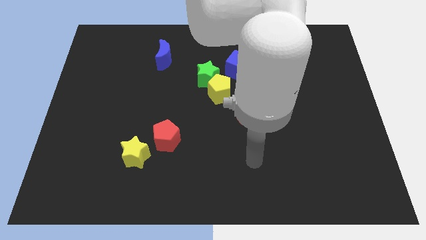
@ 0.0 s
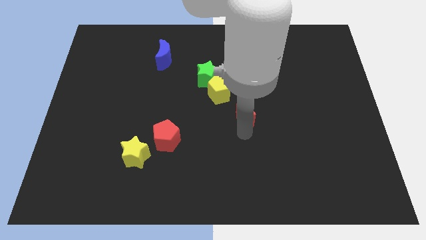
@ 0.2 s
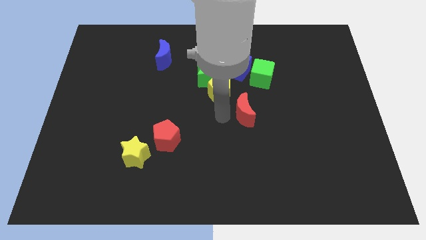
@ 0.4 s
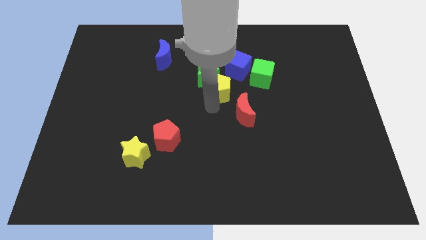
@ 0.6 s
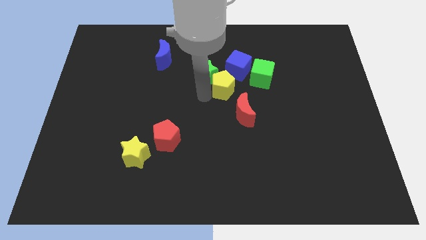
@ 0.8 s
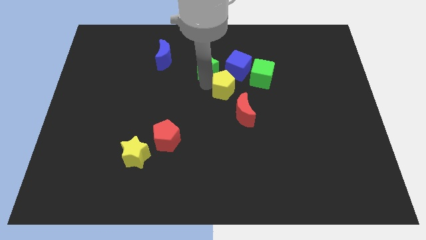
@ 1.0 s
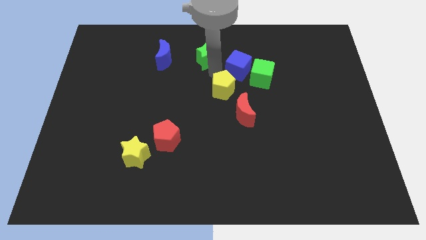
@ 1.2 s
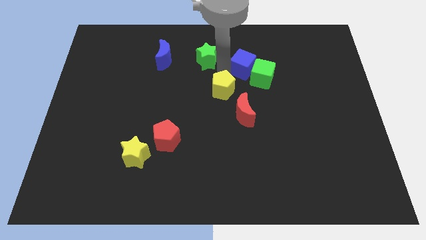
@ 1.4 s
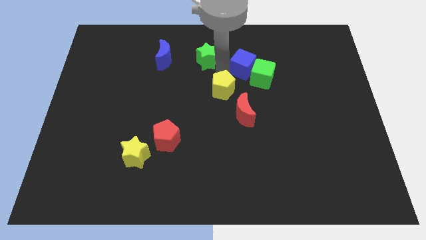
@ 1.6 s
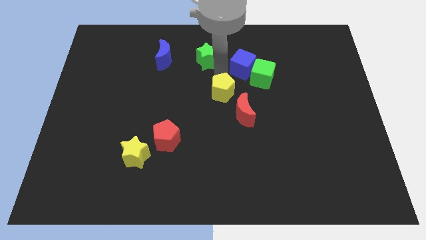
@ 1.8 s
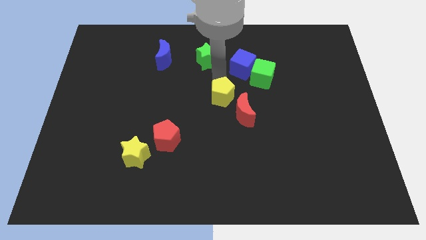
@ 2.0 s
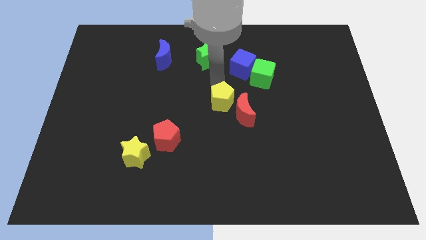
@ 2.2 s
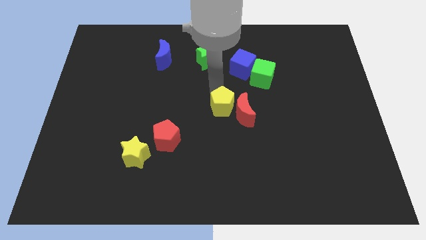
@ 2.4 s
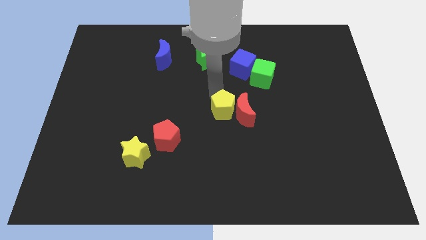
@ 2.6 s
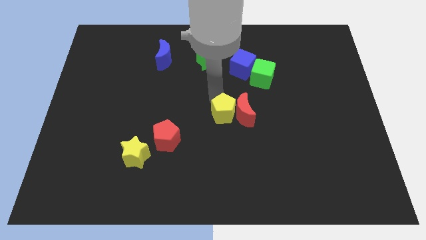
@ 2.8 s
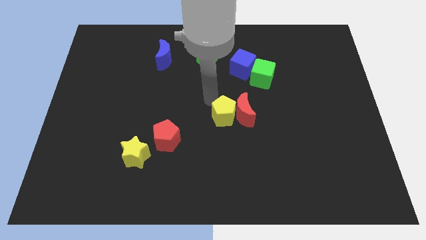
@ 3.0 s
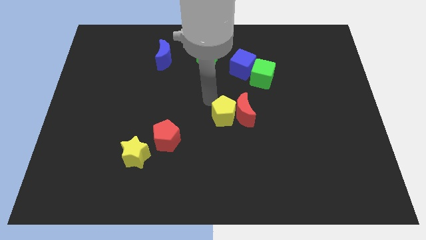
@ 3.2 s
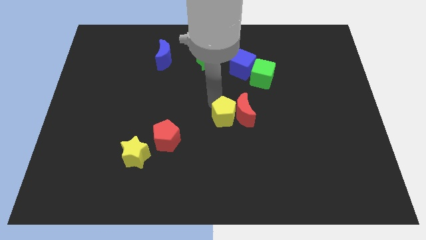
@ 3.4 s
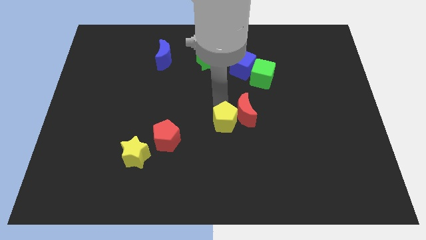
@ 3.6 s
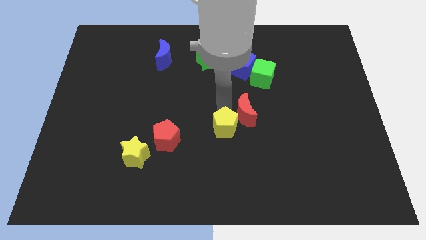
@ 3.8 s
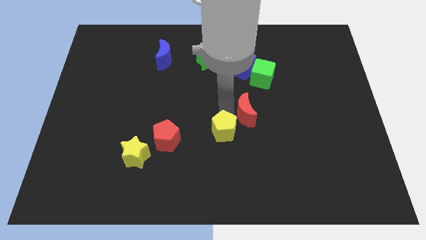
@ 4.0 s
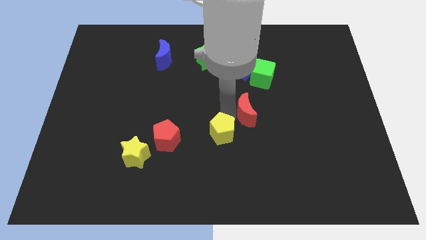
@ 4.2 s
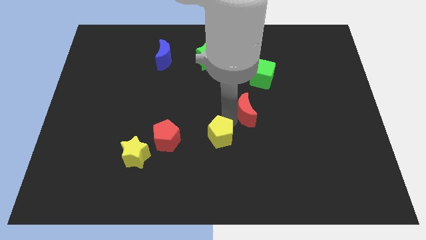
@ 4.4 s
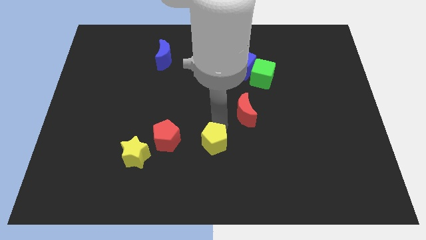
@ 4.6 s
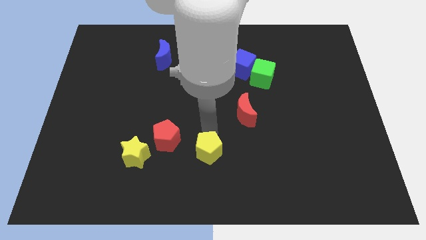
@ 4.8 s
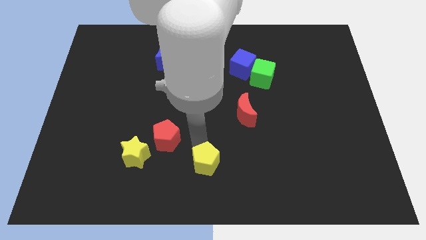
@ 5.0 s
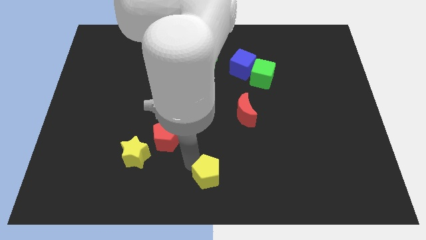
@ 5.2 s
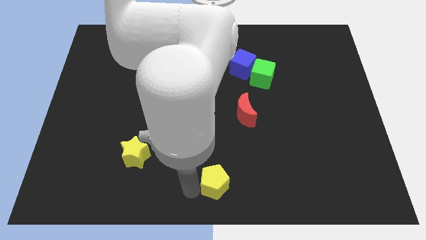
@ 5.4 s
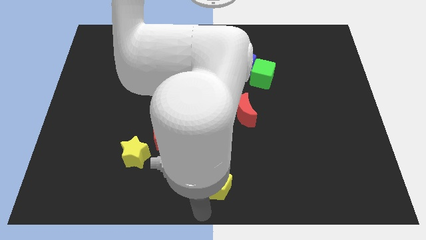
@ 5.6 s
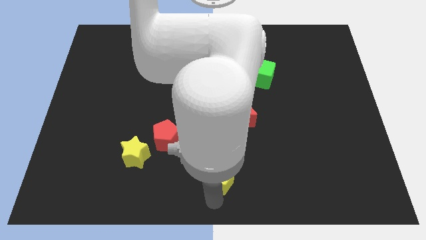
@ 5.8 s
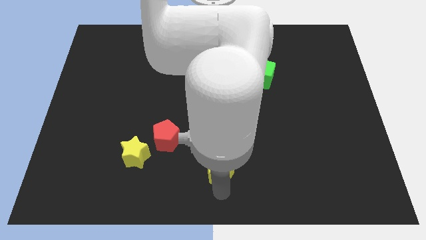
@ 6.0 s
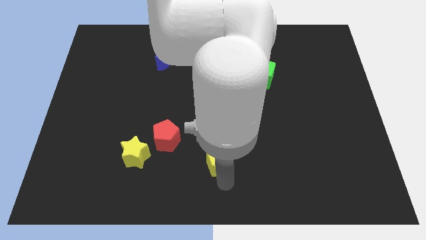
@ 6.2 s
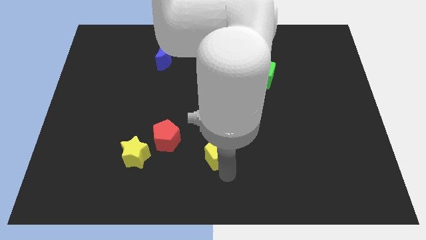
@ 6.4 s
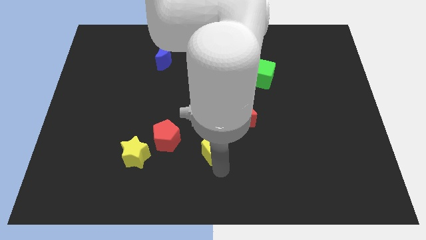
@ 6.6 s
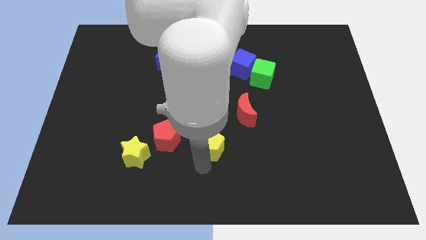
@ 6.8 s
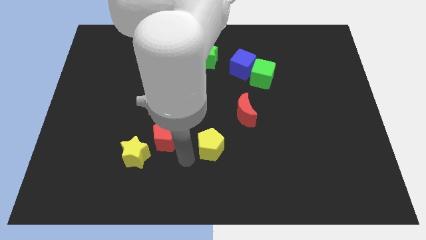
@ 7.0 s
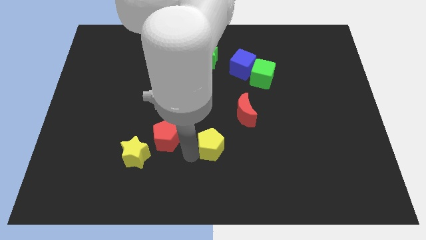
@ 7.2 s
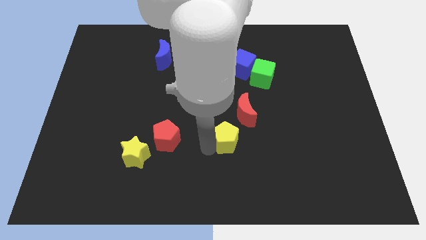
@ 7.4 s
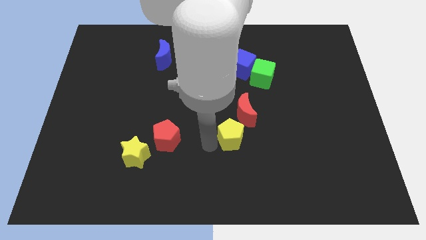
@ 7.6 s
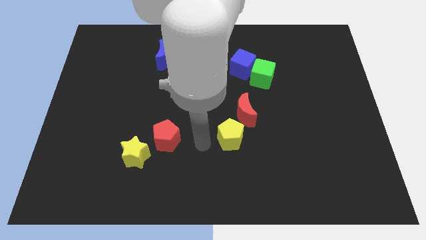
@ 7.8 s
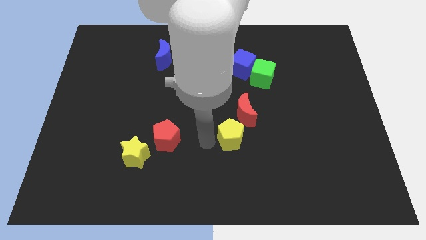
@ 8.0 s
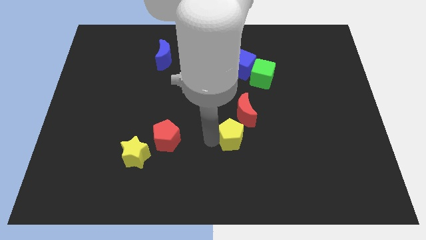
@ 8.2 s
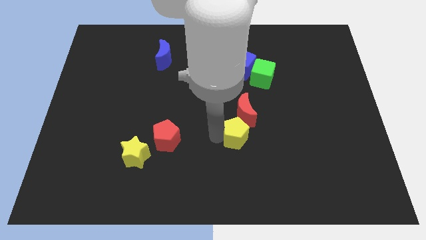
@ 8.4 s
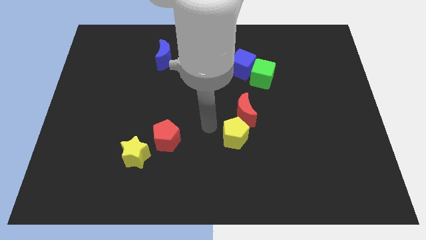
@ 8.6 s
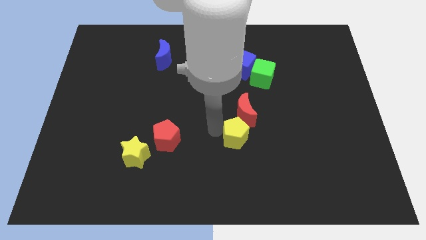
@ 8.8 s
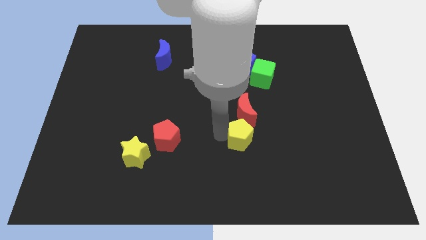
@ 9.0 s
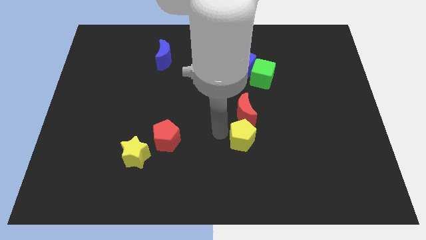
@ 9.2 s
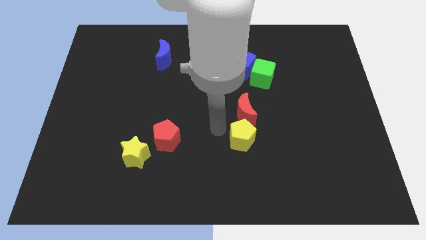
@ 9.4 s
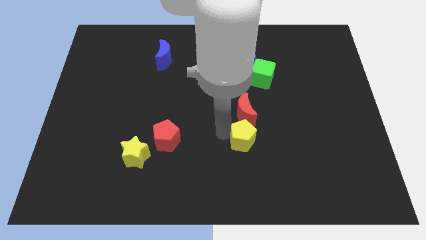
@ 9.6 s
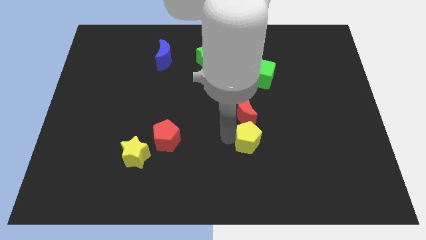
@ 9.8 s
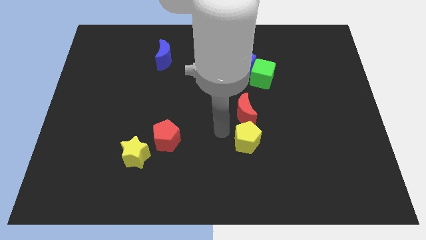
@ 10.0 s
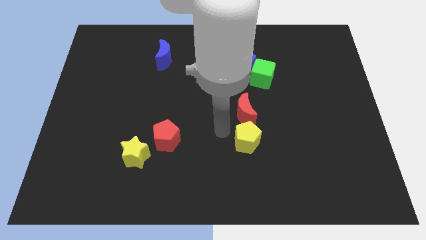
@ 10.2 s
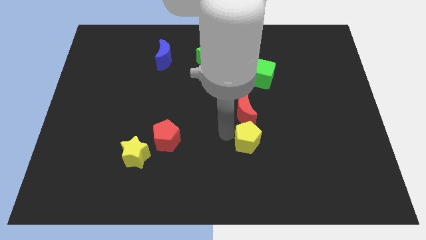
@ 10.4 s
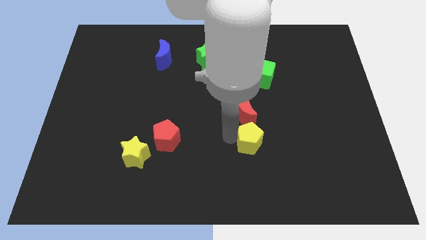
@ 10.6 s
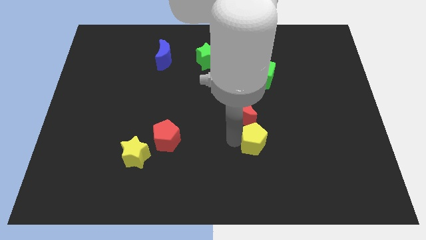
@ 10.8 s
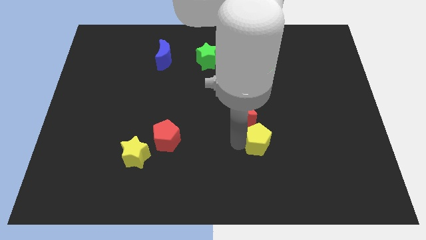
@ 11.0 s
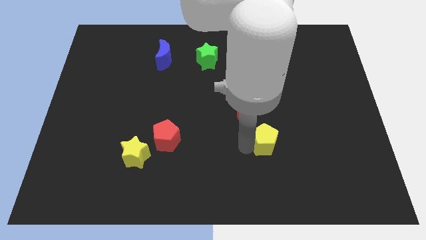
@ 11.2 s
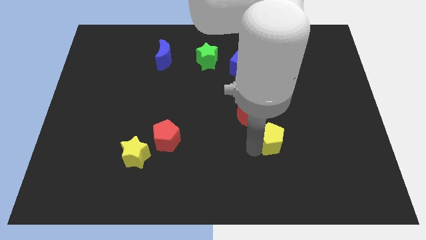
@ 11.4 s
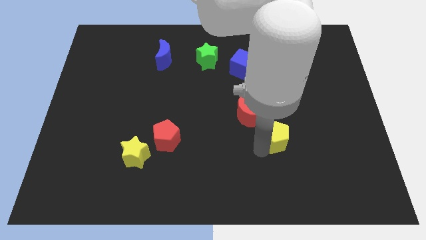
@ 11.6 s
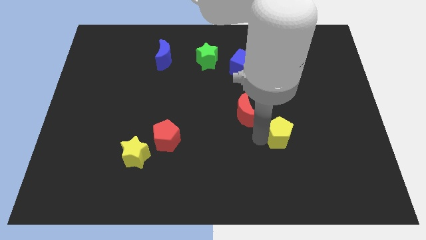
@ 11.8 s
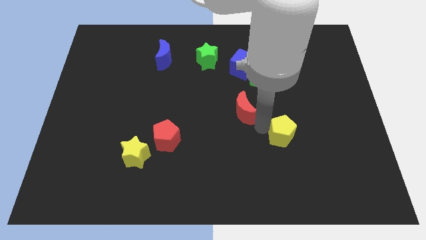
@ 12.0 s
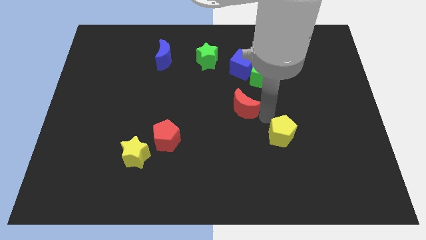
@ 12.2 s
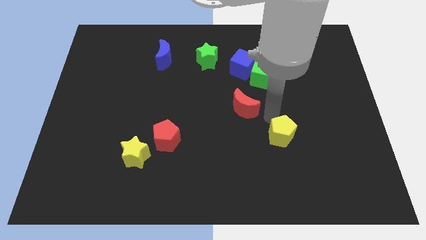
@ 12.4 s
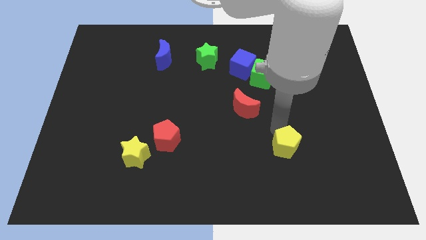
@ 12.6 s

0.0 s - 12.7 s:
slide the yellow pentagon diagonally downwards and right

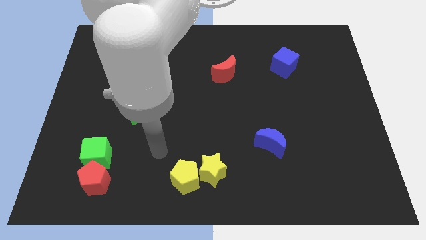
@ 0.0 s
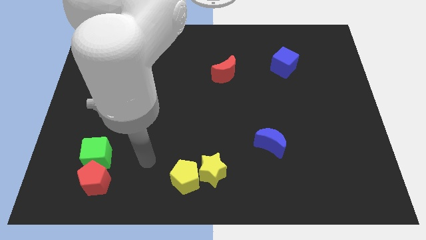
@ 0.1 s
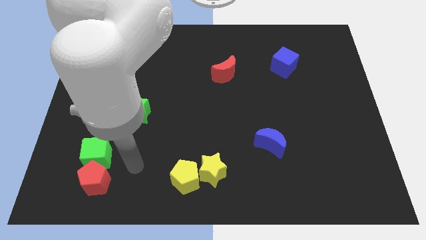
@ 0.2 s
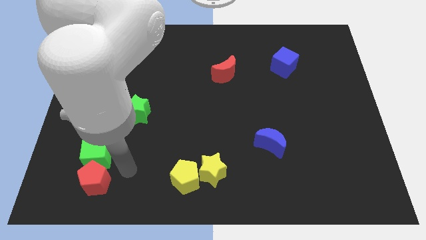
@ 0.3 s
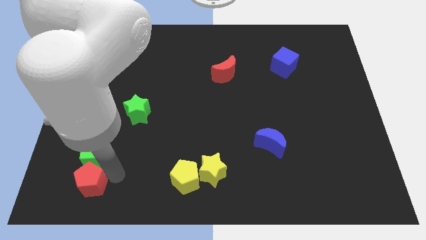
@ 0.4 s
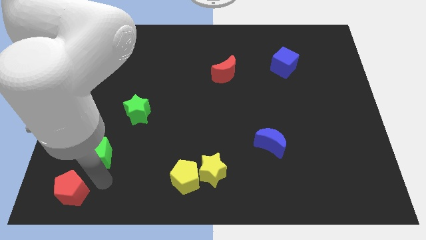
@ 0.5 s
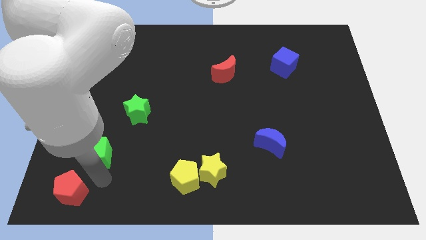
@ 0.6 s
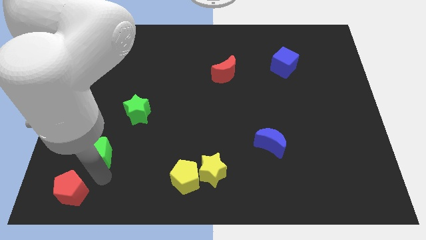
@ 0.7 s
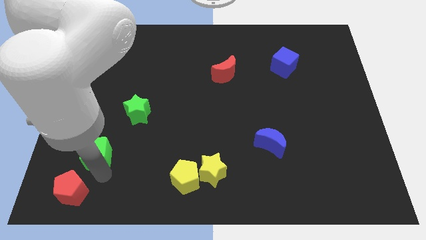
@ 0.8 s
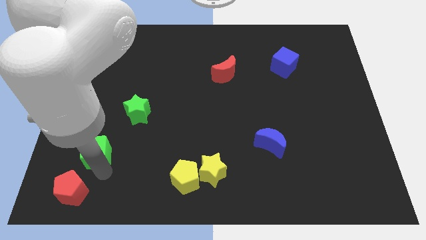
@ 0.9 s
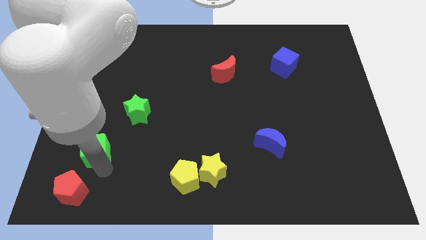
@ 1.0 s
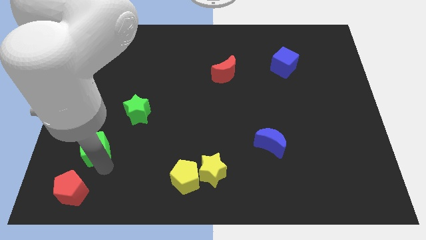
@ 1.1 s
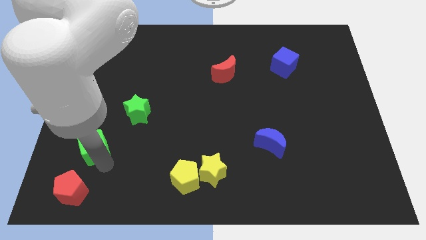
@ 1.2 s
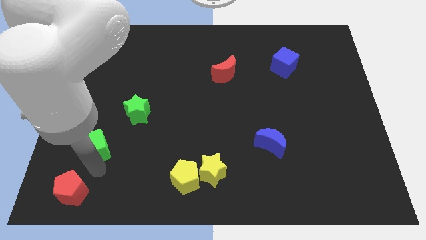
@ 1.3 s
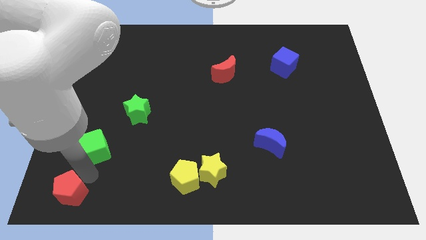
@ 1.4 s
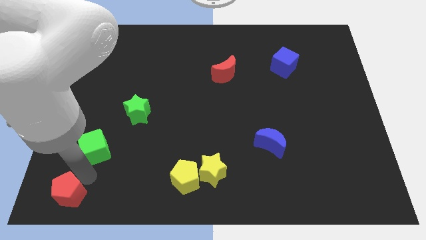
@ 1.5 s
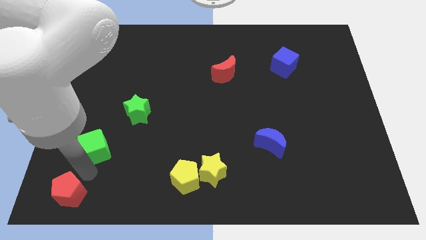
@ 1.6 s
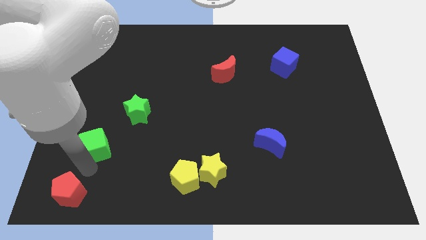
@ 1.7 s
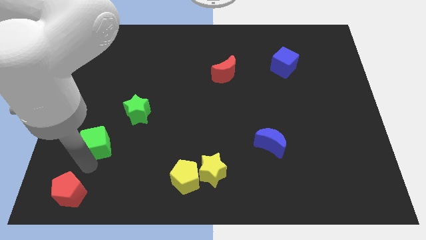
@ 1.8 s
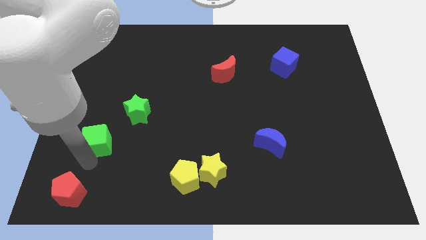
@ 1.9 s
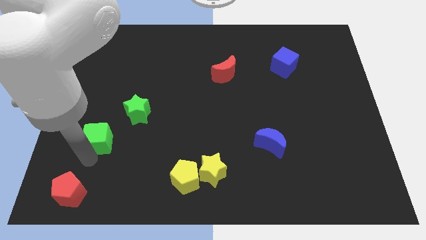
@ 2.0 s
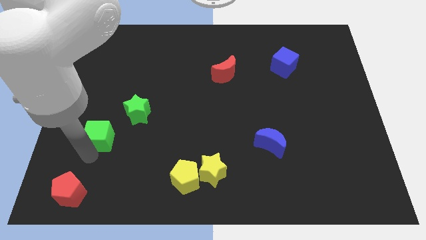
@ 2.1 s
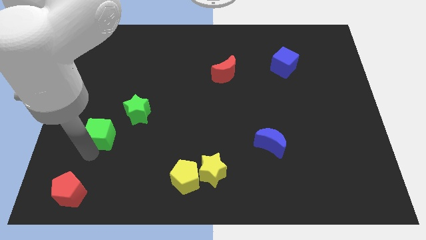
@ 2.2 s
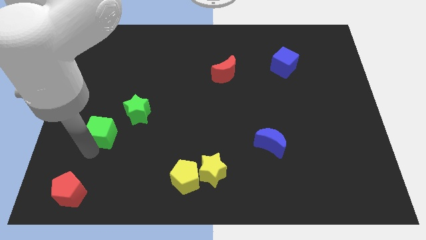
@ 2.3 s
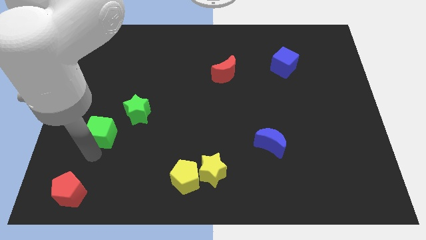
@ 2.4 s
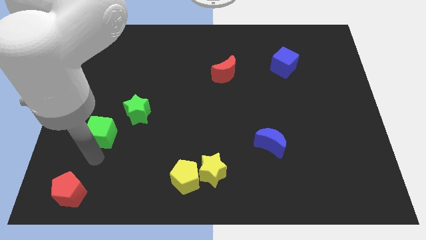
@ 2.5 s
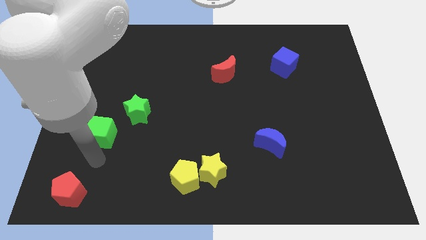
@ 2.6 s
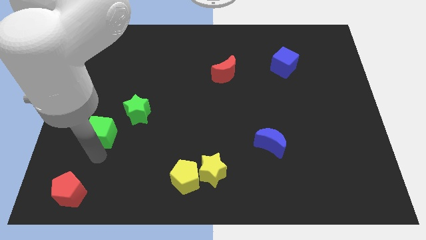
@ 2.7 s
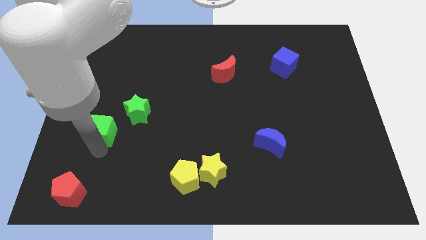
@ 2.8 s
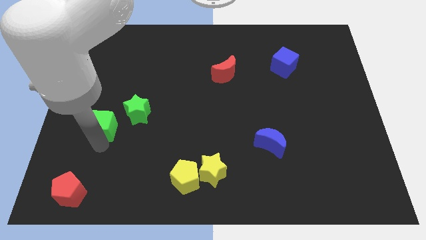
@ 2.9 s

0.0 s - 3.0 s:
move the green cube a bit upwards
